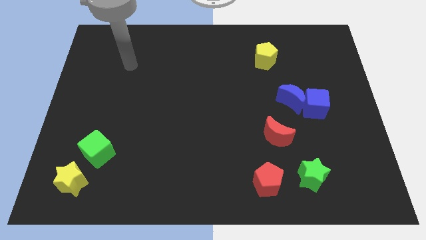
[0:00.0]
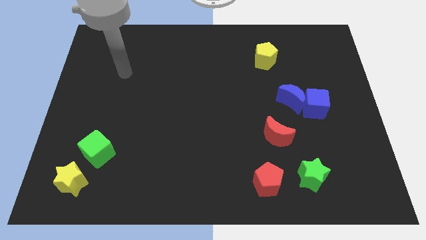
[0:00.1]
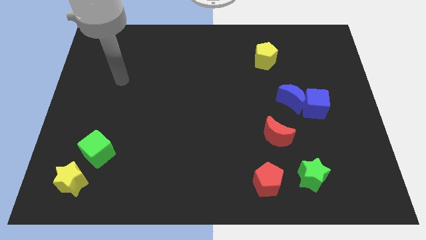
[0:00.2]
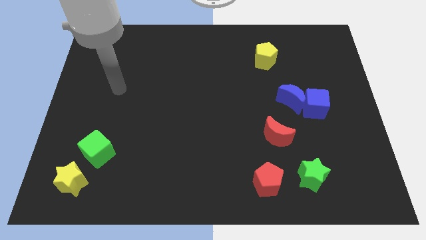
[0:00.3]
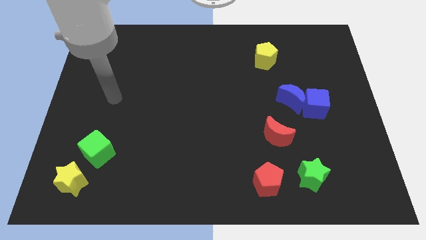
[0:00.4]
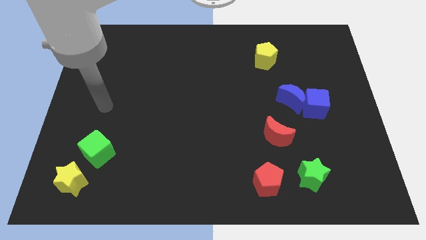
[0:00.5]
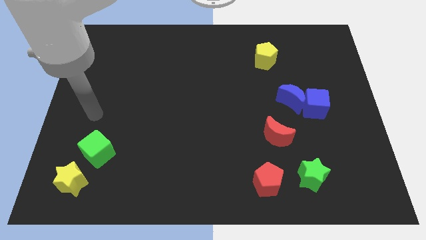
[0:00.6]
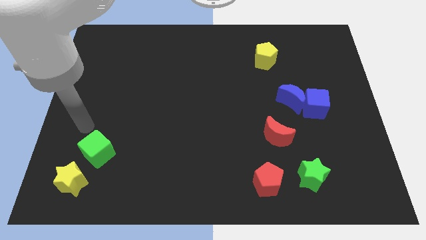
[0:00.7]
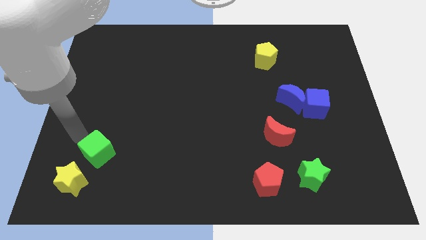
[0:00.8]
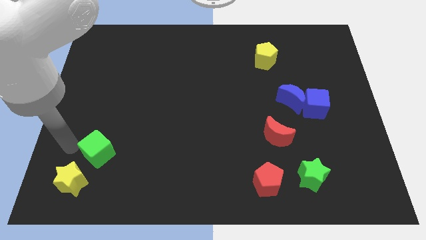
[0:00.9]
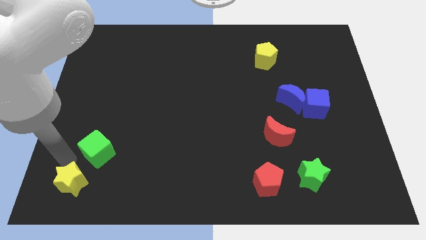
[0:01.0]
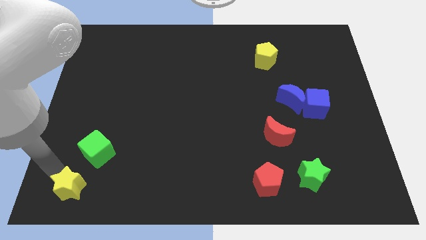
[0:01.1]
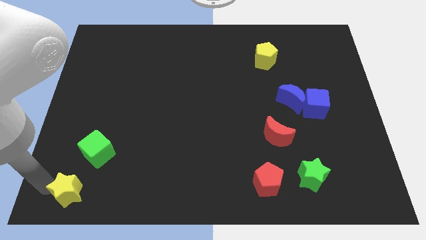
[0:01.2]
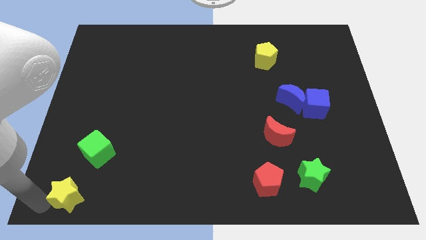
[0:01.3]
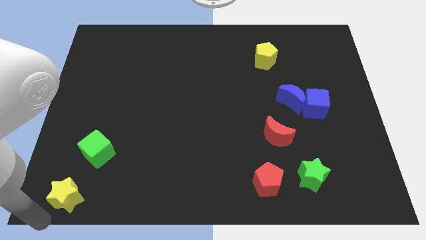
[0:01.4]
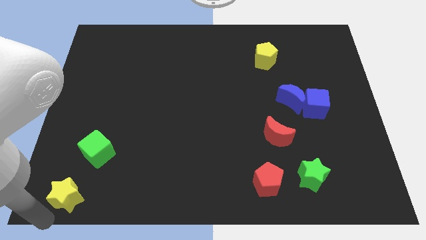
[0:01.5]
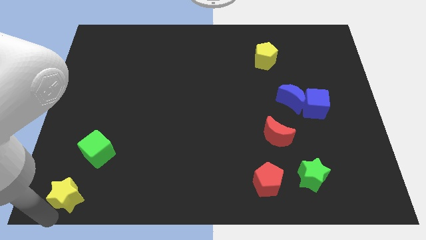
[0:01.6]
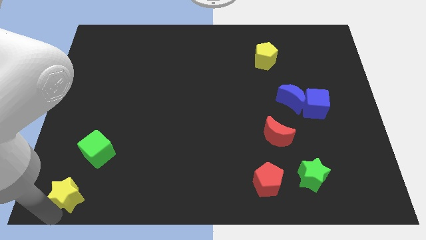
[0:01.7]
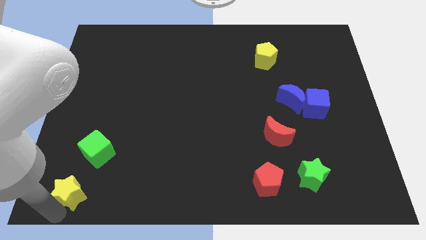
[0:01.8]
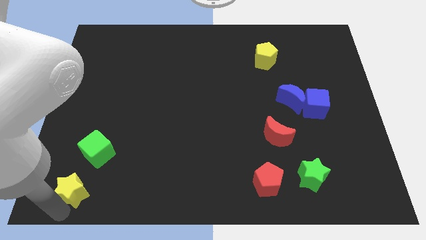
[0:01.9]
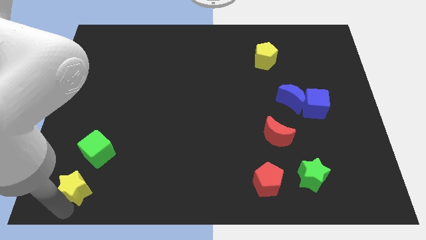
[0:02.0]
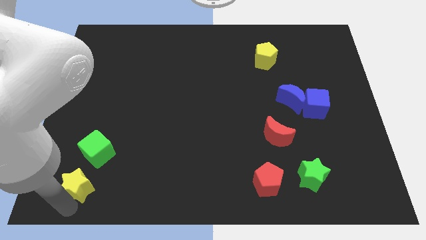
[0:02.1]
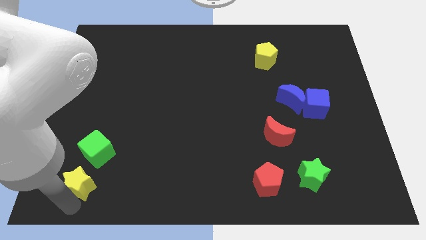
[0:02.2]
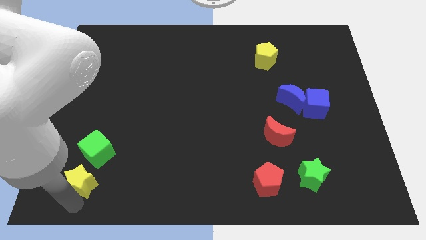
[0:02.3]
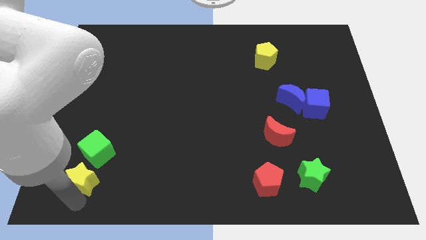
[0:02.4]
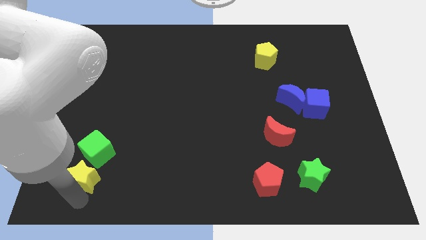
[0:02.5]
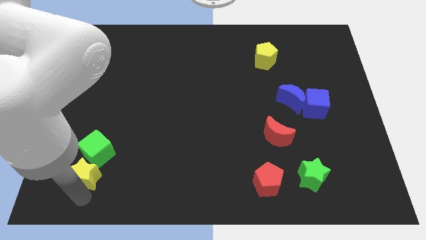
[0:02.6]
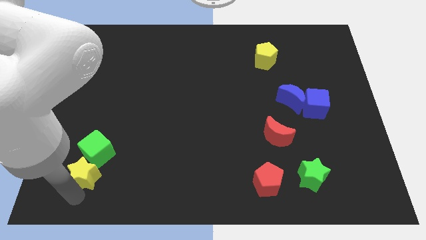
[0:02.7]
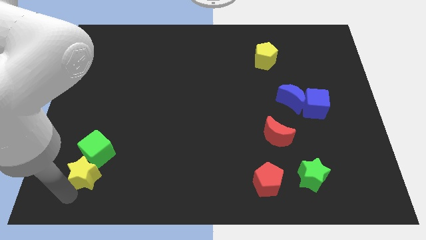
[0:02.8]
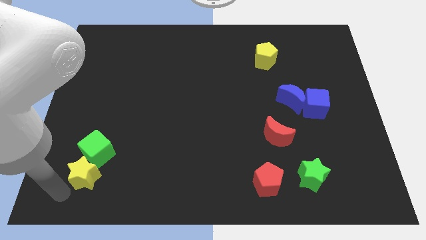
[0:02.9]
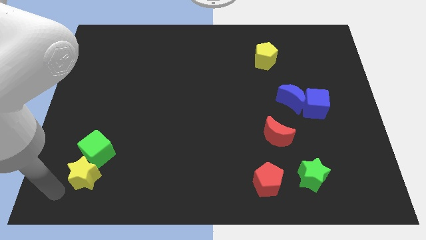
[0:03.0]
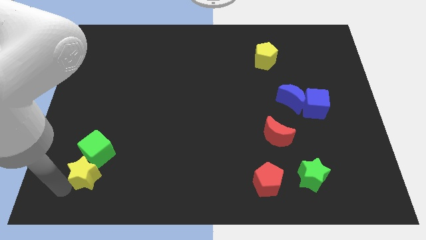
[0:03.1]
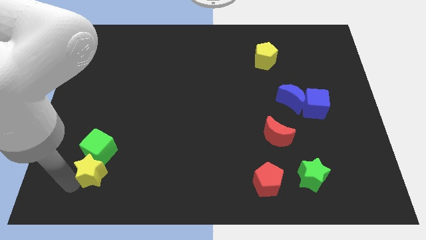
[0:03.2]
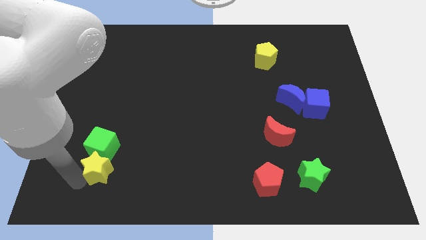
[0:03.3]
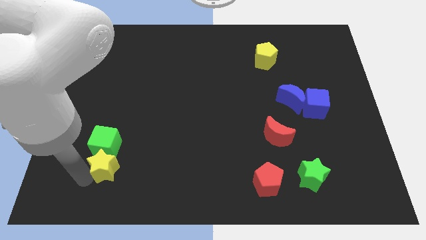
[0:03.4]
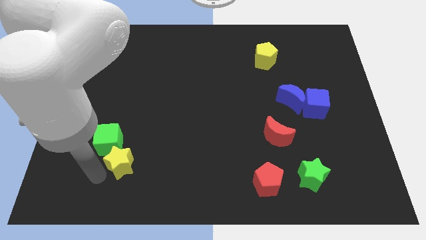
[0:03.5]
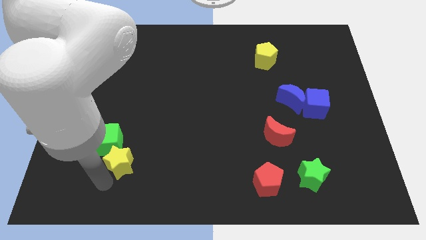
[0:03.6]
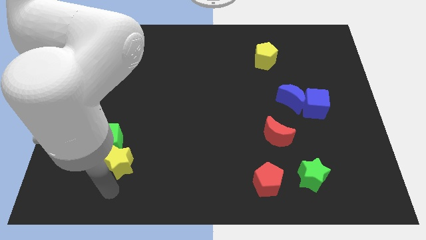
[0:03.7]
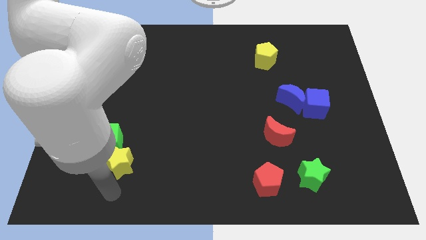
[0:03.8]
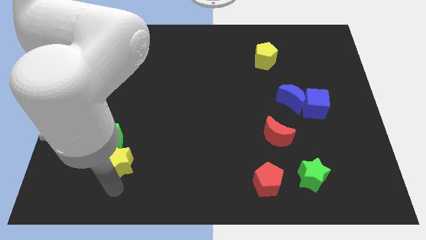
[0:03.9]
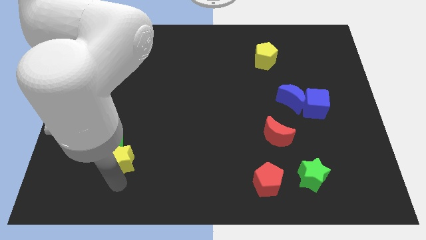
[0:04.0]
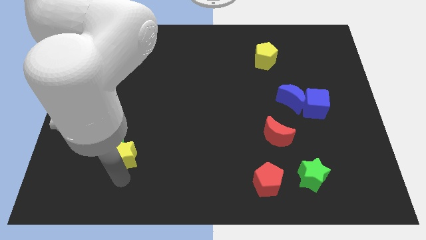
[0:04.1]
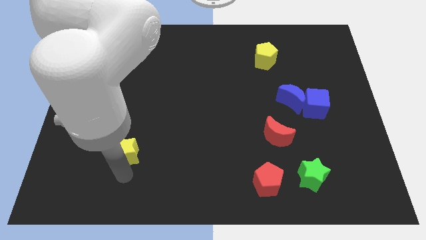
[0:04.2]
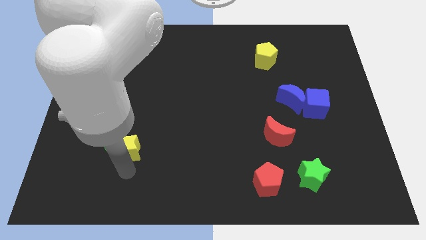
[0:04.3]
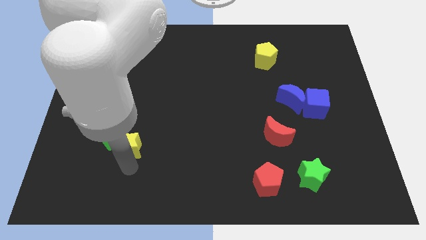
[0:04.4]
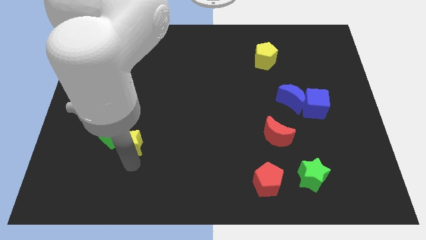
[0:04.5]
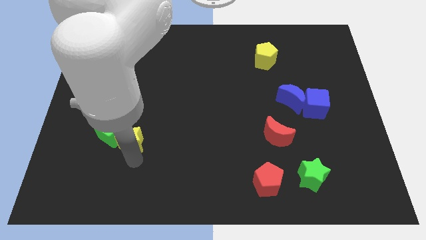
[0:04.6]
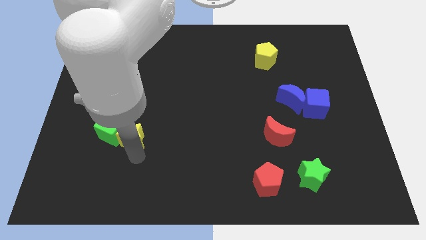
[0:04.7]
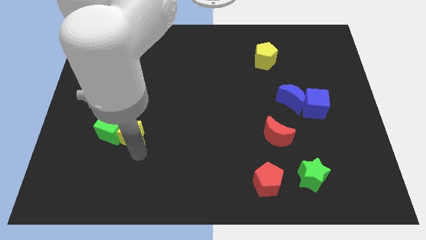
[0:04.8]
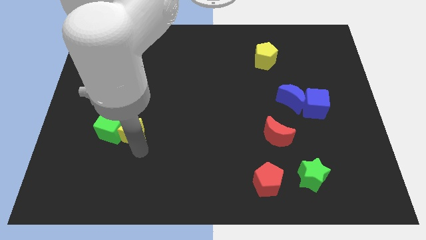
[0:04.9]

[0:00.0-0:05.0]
move the yellow star diagonally up and to the right of the green cube

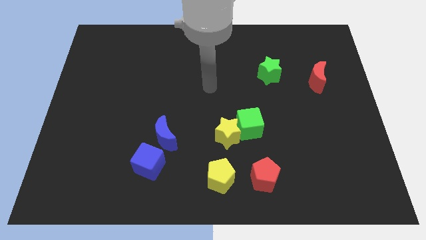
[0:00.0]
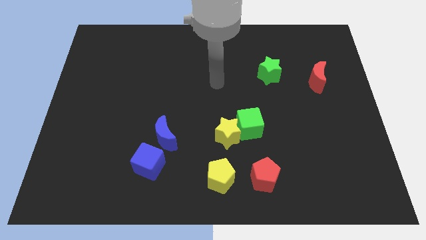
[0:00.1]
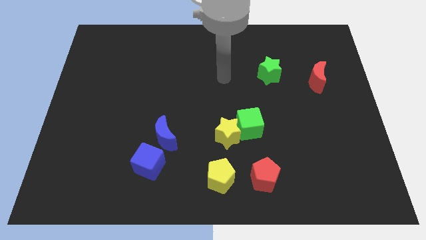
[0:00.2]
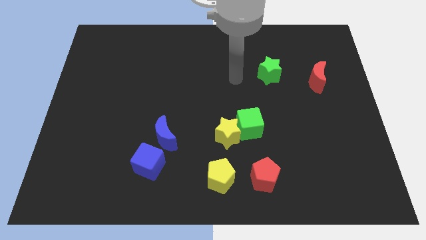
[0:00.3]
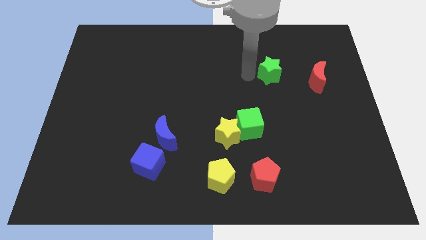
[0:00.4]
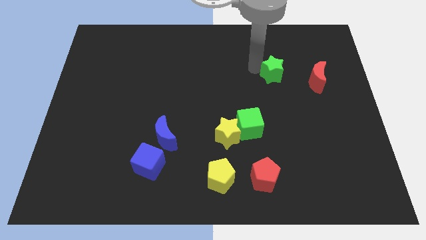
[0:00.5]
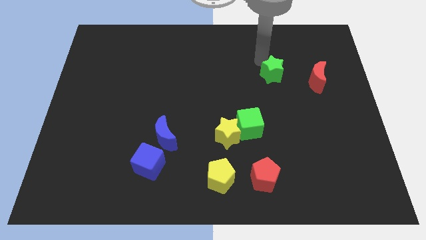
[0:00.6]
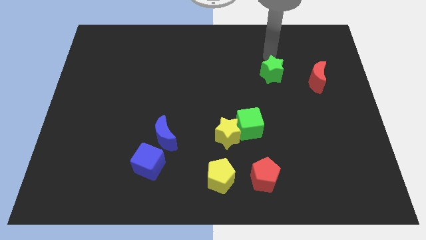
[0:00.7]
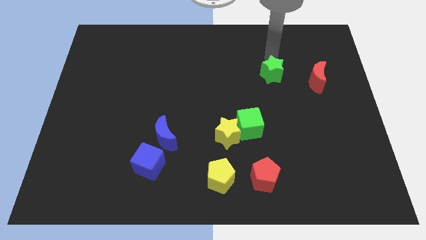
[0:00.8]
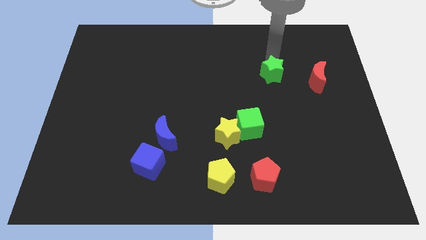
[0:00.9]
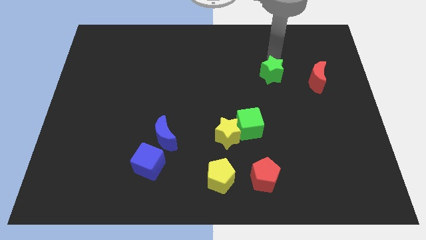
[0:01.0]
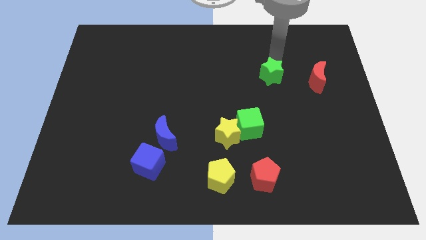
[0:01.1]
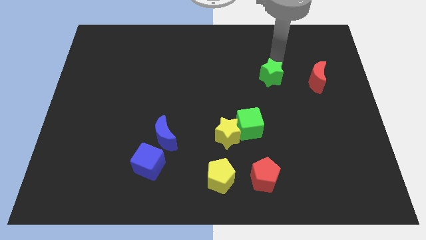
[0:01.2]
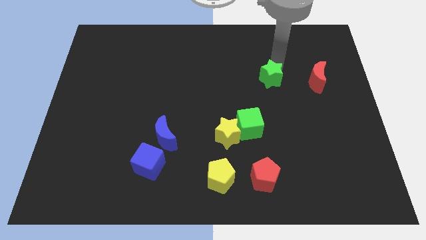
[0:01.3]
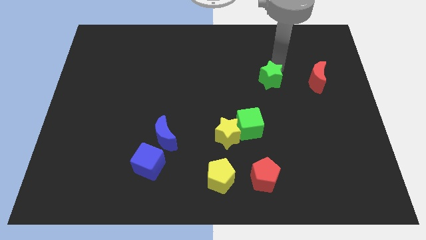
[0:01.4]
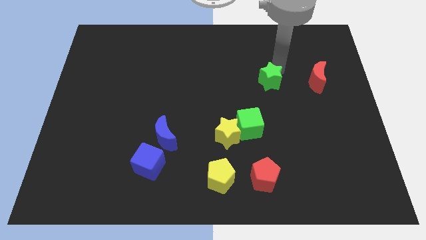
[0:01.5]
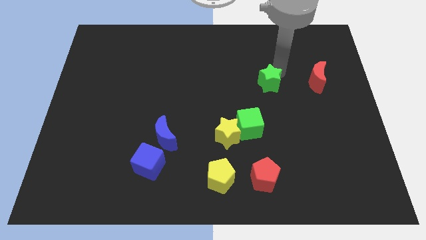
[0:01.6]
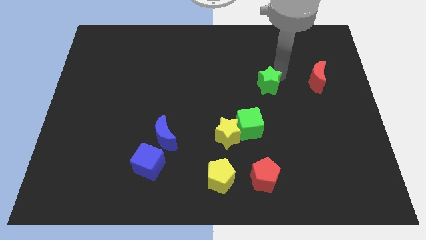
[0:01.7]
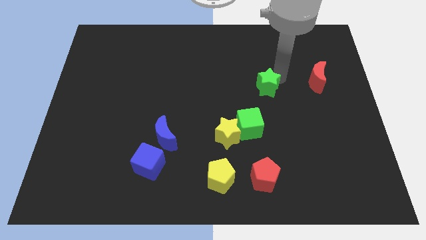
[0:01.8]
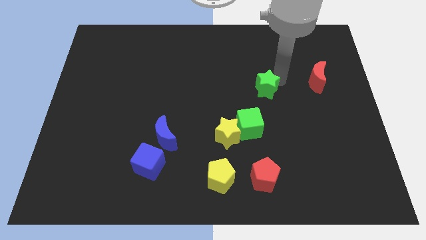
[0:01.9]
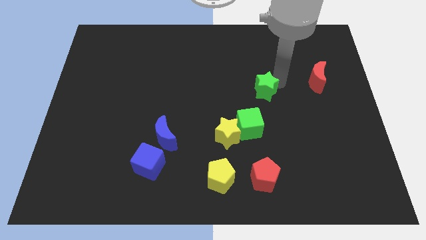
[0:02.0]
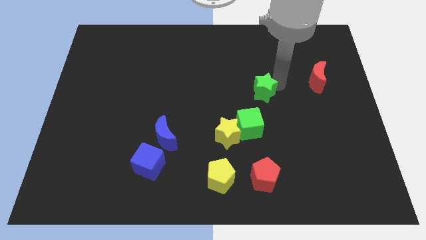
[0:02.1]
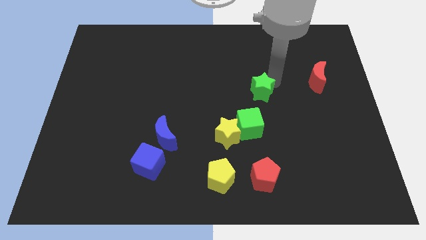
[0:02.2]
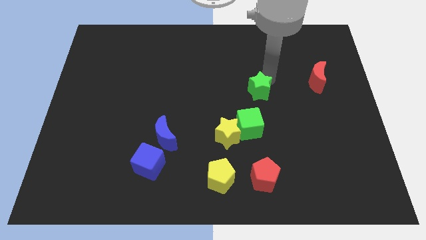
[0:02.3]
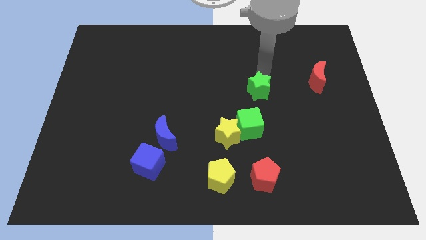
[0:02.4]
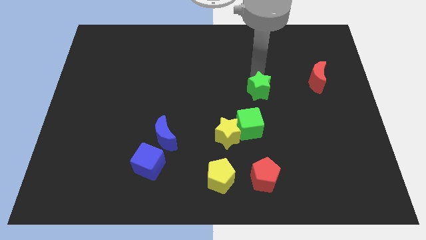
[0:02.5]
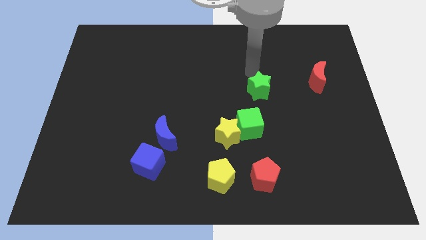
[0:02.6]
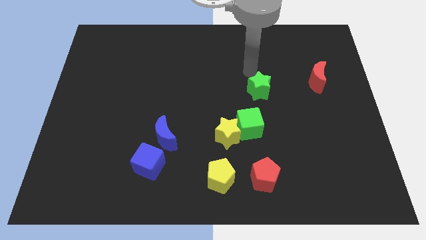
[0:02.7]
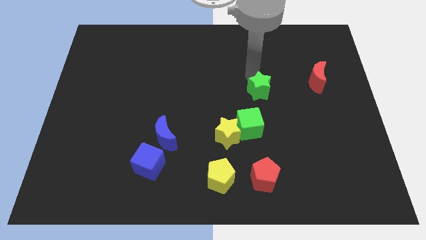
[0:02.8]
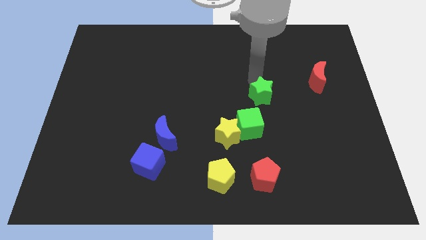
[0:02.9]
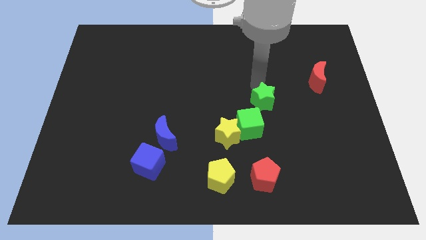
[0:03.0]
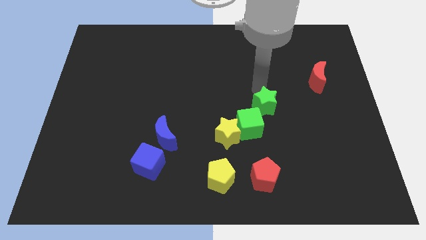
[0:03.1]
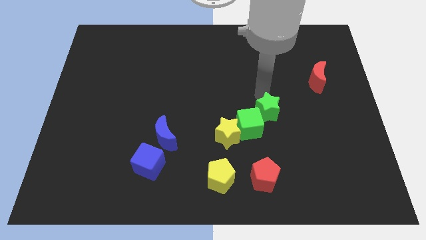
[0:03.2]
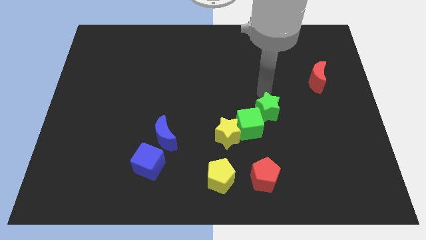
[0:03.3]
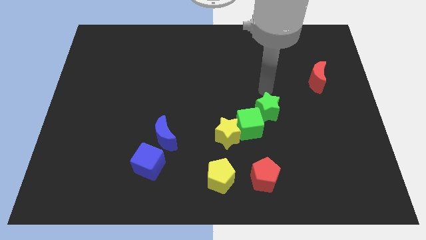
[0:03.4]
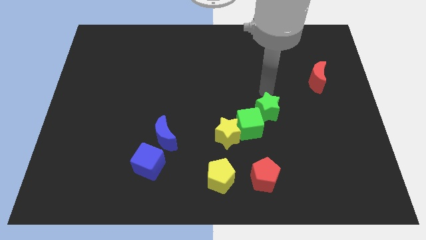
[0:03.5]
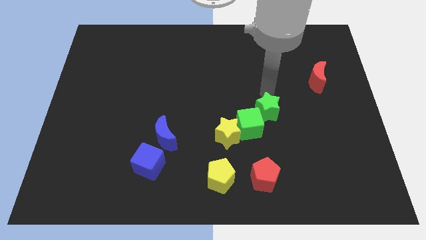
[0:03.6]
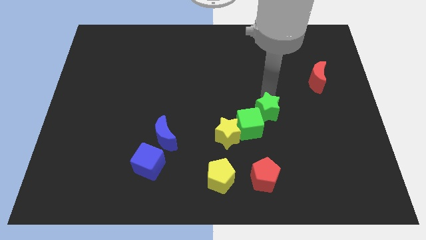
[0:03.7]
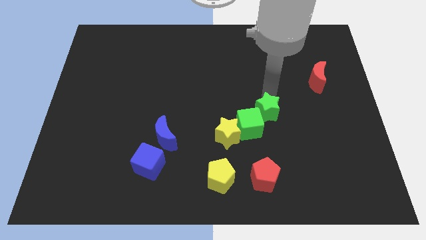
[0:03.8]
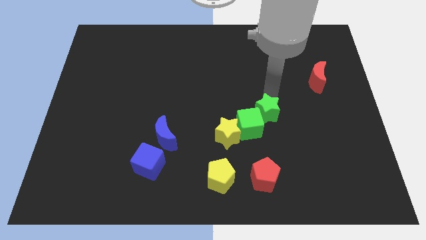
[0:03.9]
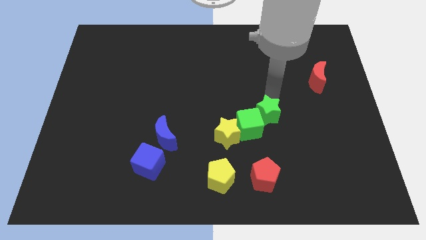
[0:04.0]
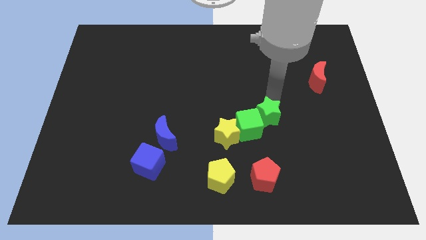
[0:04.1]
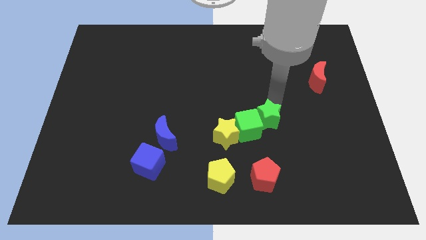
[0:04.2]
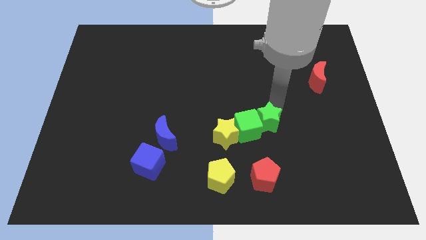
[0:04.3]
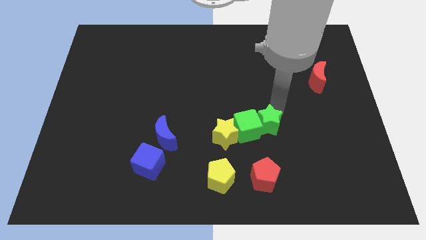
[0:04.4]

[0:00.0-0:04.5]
slide the green star to the bottom right of the green cube
